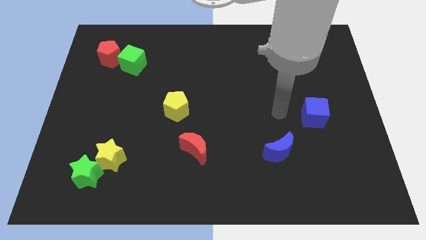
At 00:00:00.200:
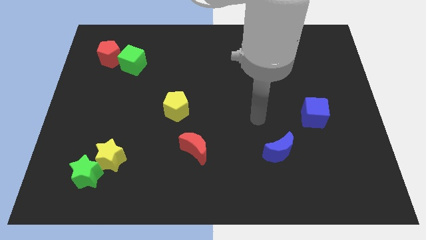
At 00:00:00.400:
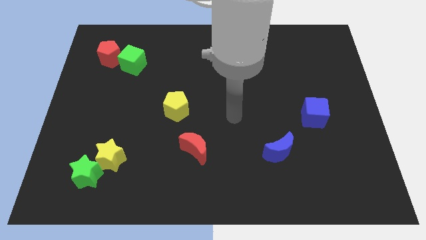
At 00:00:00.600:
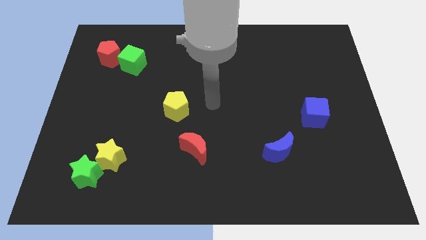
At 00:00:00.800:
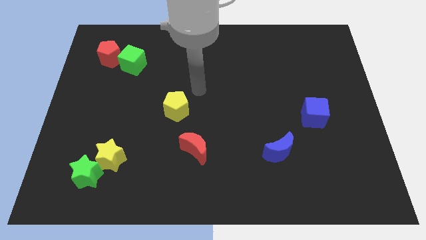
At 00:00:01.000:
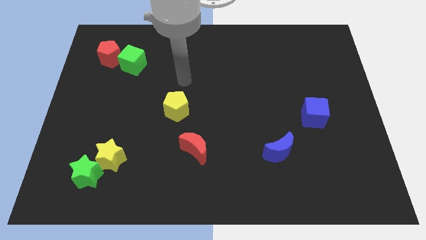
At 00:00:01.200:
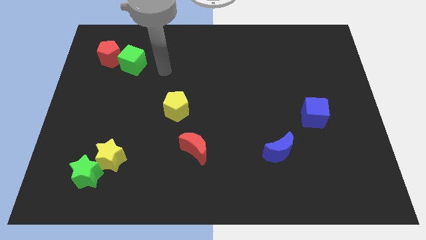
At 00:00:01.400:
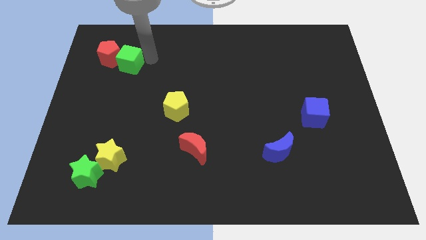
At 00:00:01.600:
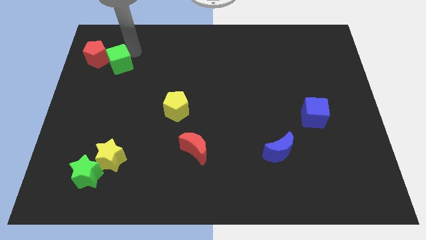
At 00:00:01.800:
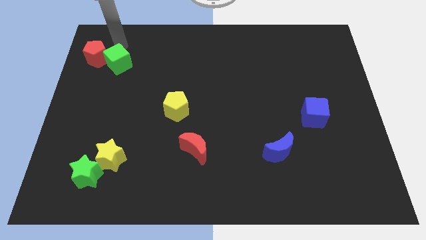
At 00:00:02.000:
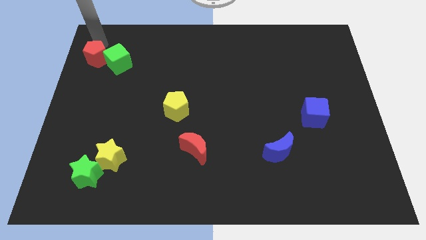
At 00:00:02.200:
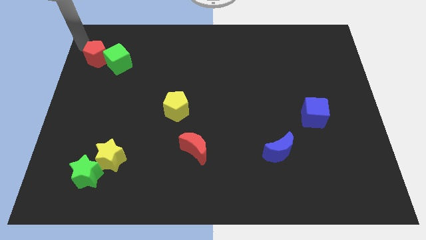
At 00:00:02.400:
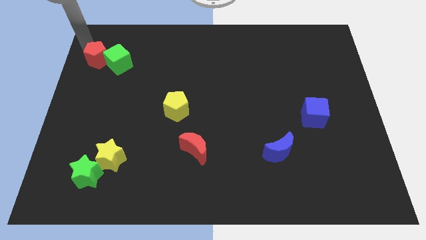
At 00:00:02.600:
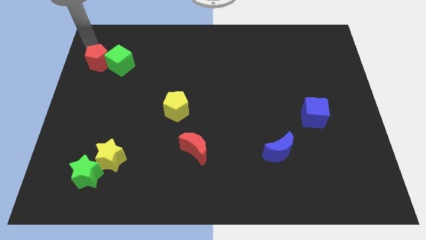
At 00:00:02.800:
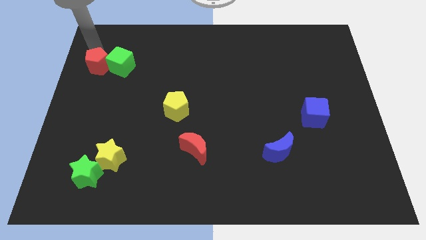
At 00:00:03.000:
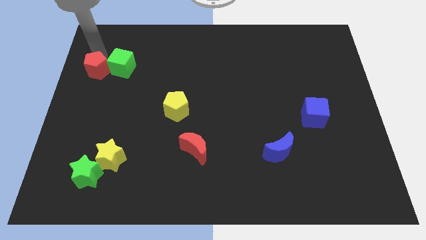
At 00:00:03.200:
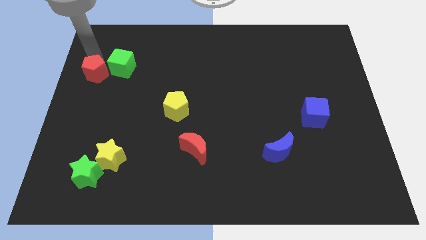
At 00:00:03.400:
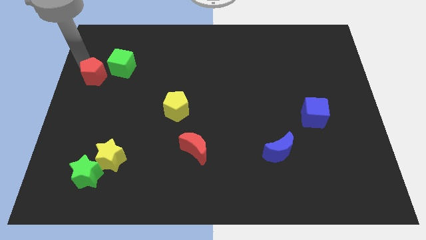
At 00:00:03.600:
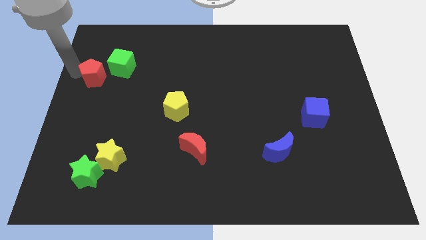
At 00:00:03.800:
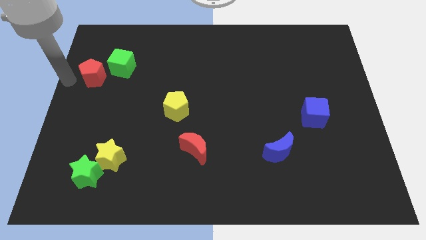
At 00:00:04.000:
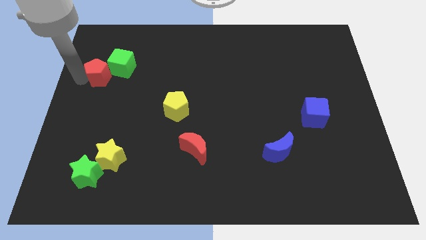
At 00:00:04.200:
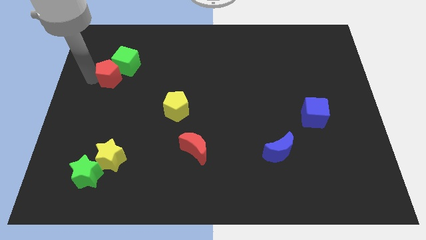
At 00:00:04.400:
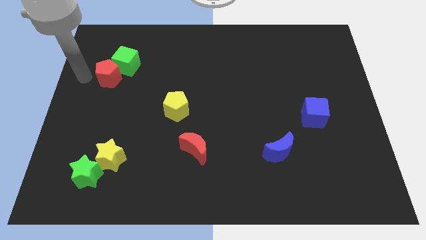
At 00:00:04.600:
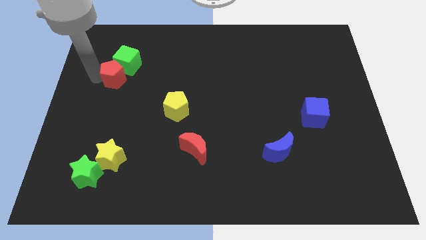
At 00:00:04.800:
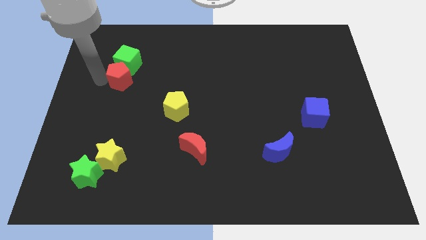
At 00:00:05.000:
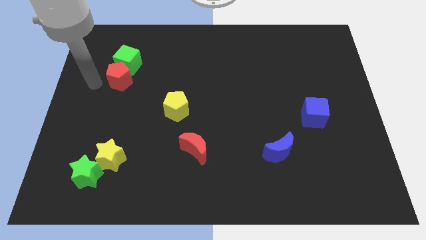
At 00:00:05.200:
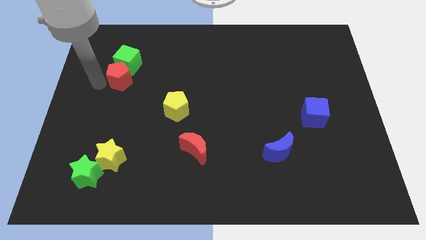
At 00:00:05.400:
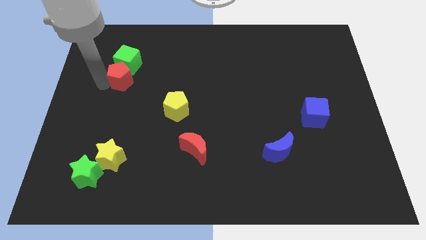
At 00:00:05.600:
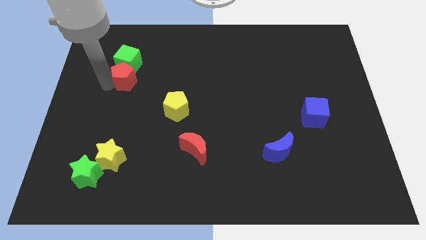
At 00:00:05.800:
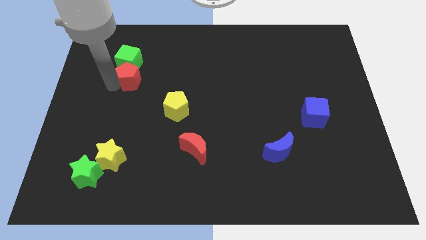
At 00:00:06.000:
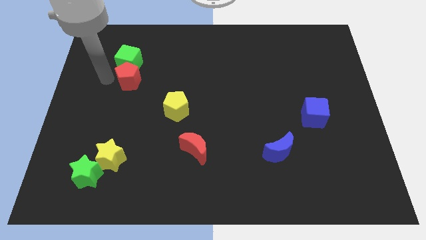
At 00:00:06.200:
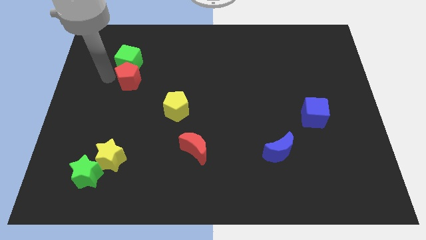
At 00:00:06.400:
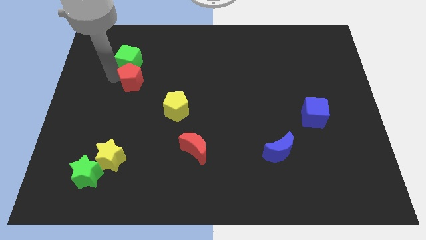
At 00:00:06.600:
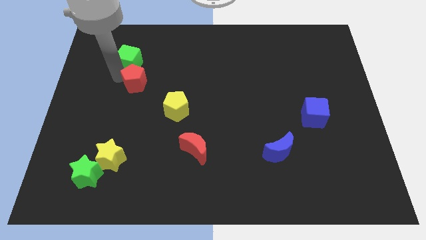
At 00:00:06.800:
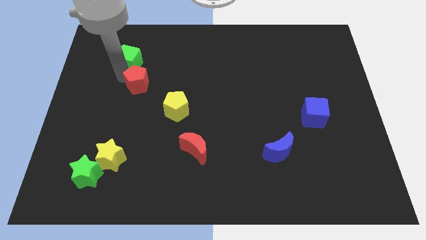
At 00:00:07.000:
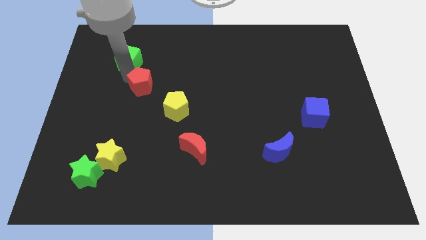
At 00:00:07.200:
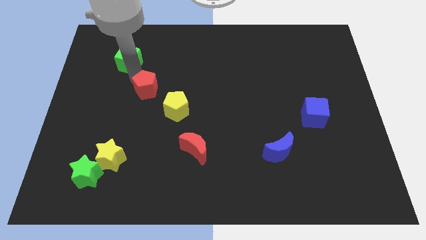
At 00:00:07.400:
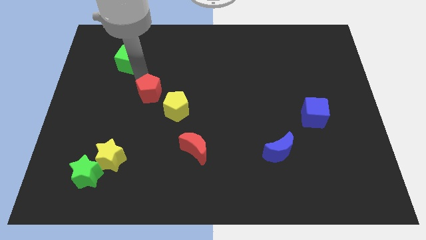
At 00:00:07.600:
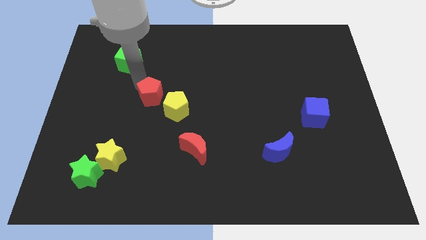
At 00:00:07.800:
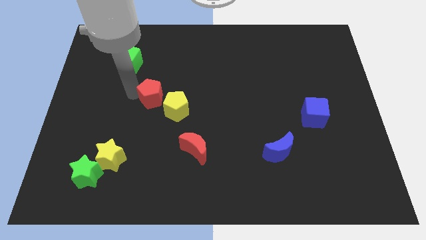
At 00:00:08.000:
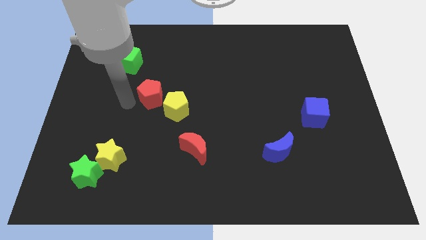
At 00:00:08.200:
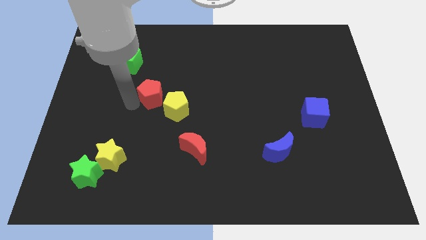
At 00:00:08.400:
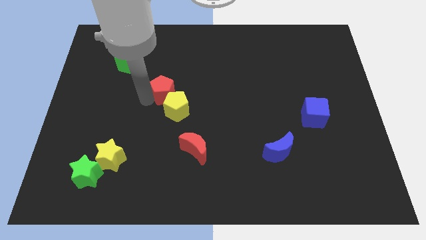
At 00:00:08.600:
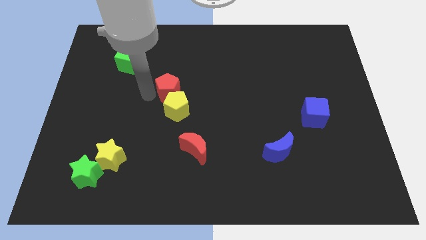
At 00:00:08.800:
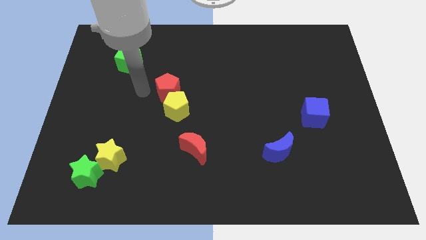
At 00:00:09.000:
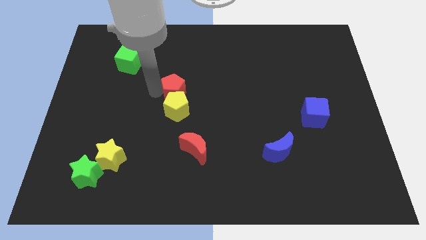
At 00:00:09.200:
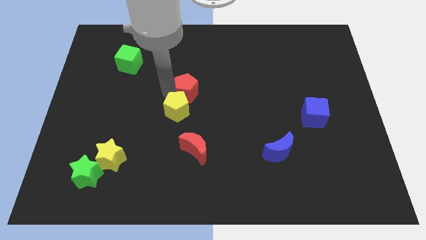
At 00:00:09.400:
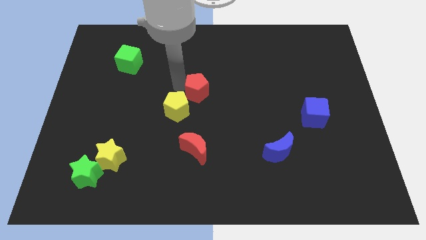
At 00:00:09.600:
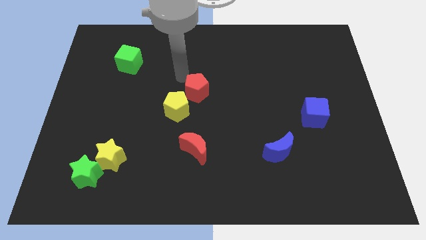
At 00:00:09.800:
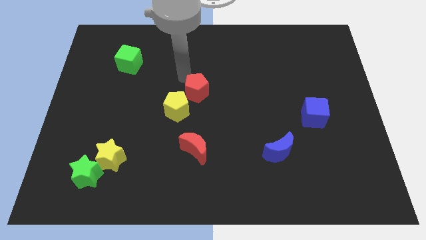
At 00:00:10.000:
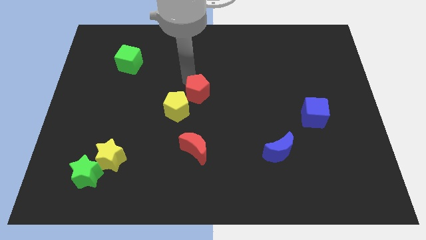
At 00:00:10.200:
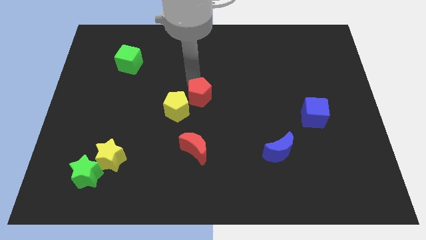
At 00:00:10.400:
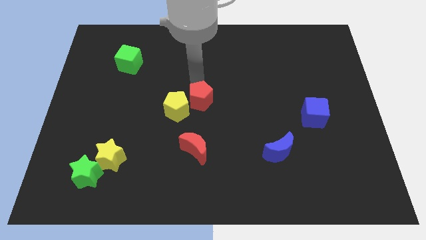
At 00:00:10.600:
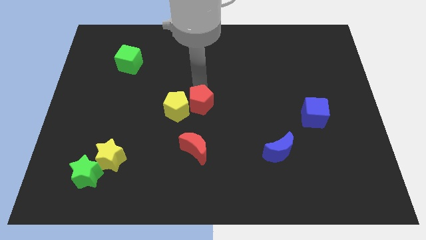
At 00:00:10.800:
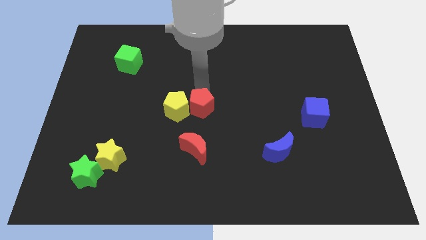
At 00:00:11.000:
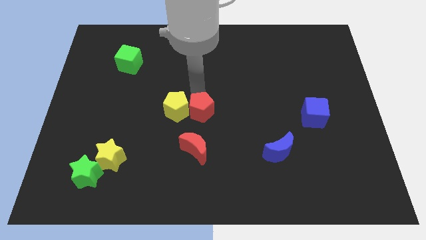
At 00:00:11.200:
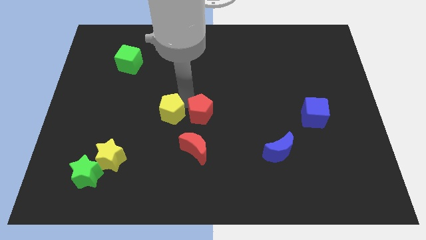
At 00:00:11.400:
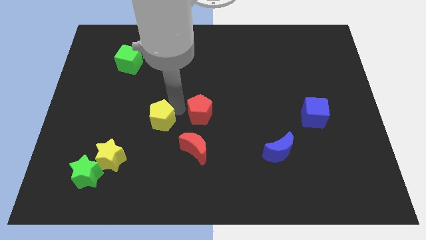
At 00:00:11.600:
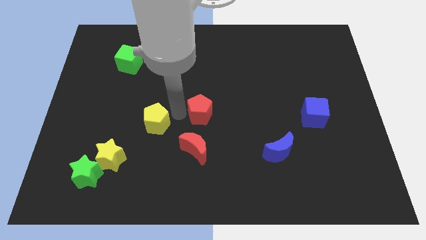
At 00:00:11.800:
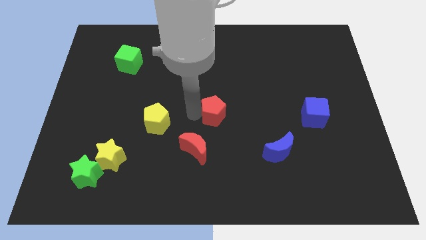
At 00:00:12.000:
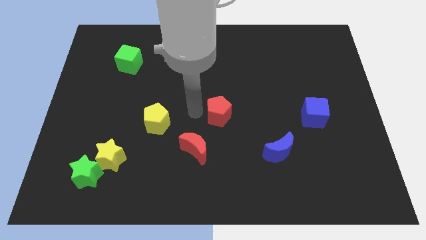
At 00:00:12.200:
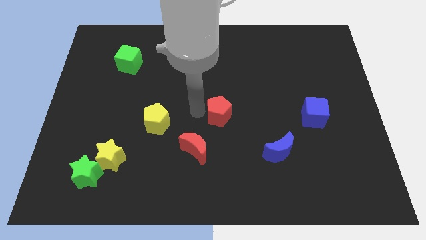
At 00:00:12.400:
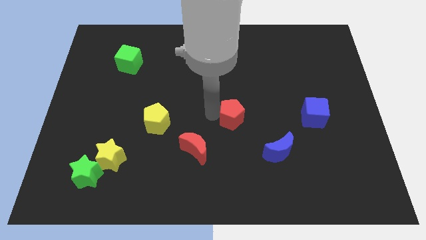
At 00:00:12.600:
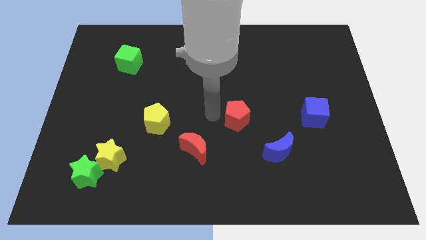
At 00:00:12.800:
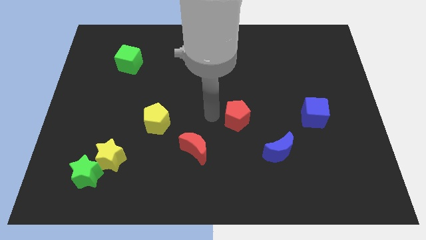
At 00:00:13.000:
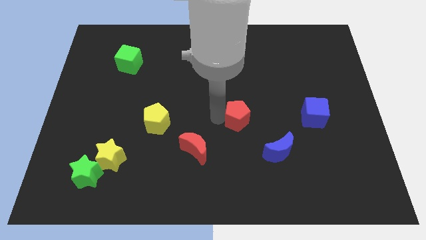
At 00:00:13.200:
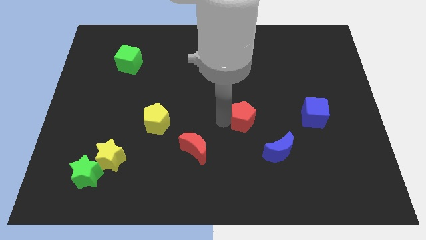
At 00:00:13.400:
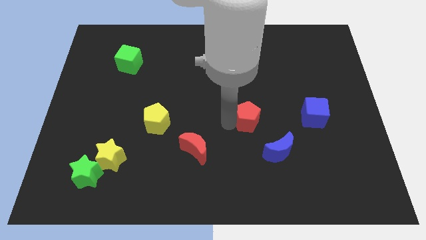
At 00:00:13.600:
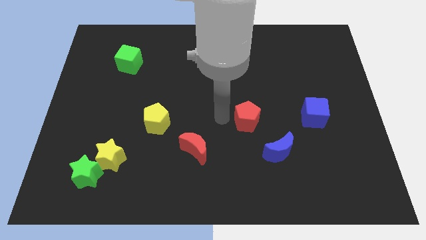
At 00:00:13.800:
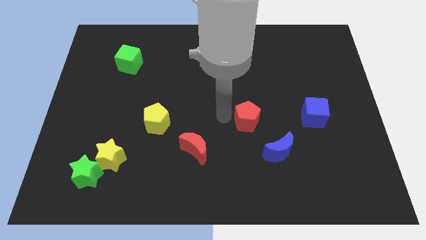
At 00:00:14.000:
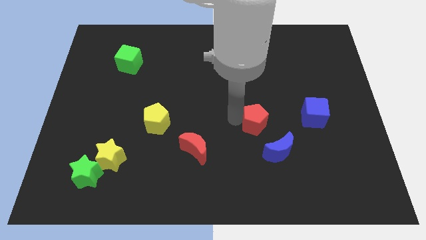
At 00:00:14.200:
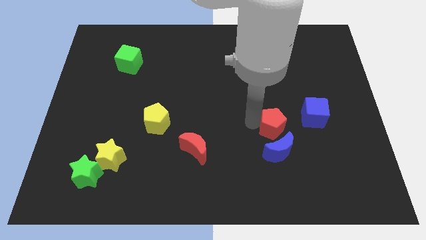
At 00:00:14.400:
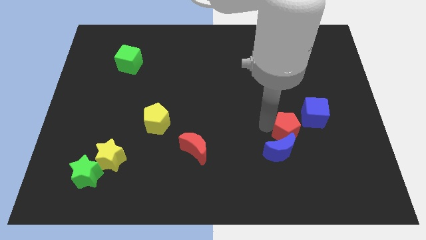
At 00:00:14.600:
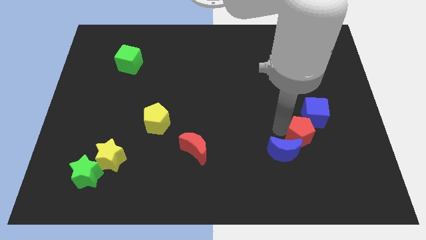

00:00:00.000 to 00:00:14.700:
put the red pentagon to the bottom side of the blue cube
